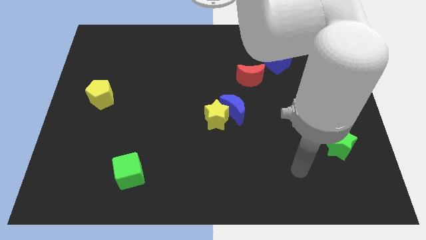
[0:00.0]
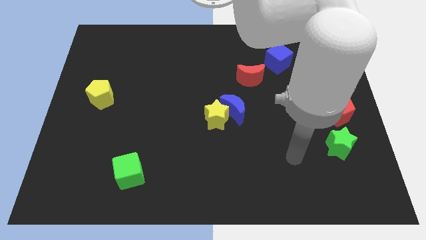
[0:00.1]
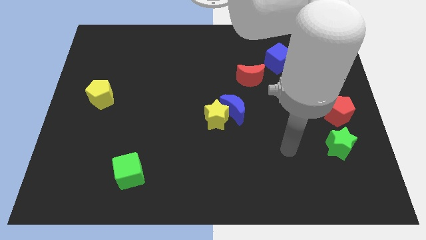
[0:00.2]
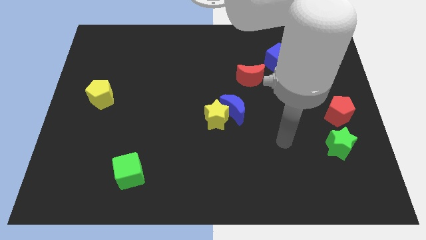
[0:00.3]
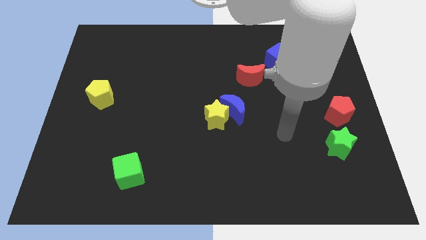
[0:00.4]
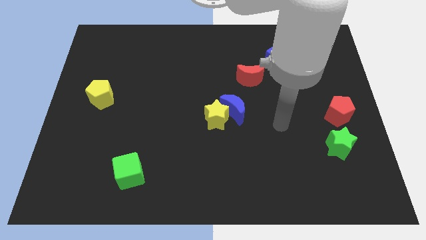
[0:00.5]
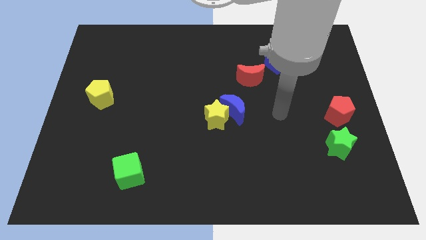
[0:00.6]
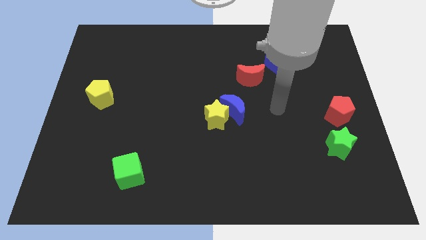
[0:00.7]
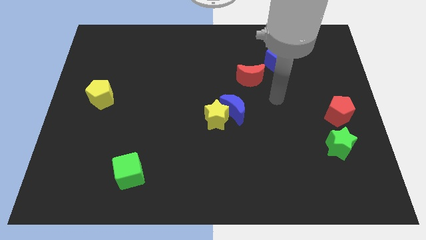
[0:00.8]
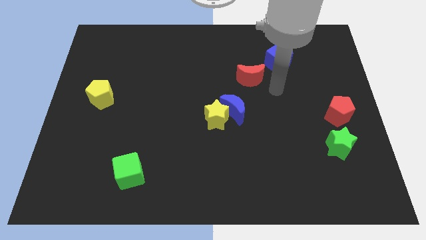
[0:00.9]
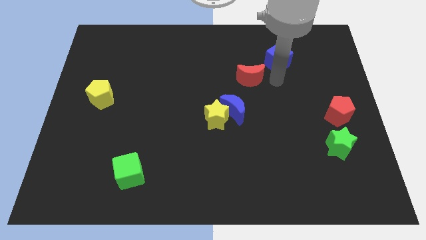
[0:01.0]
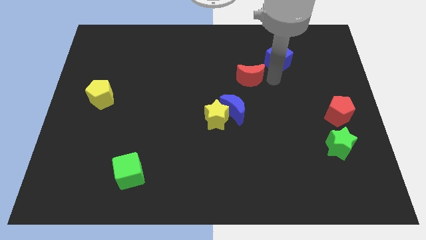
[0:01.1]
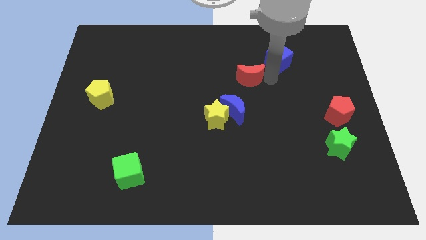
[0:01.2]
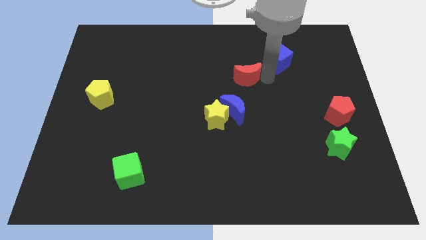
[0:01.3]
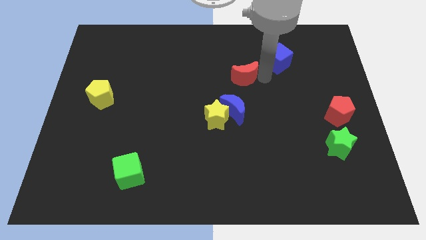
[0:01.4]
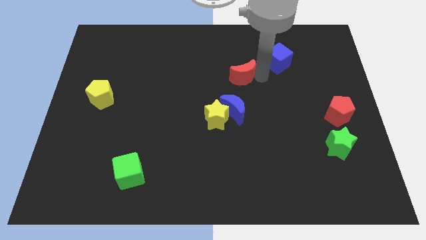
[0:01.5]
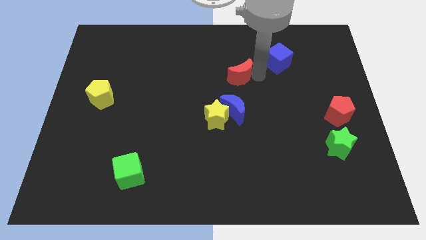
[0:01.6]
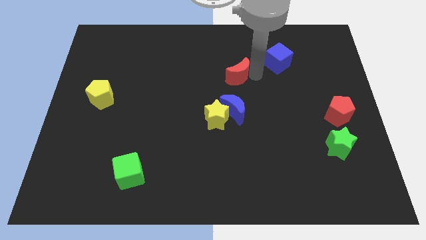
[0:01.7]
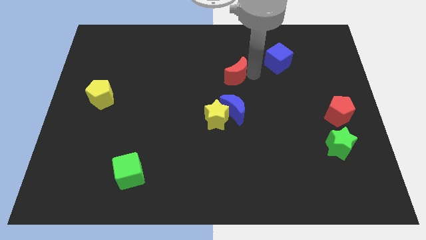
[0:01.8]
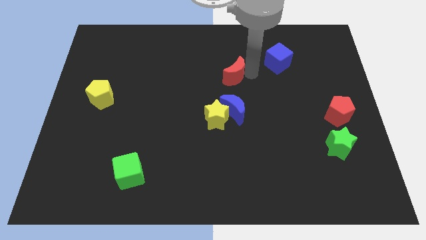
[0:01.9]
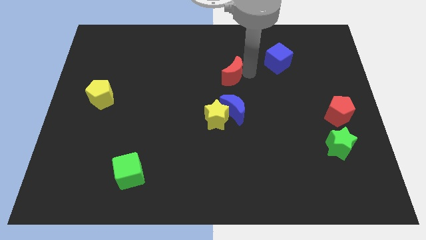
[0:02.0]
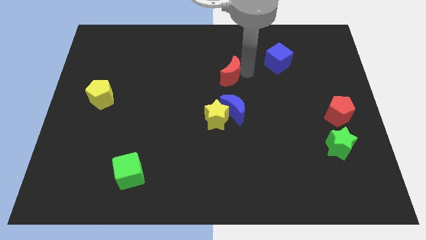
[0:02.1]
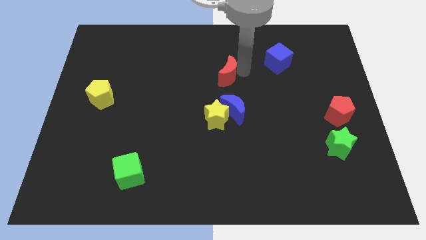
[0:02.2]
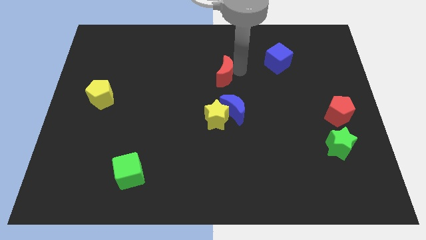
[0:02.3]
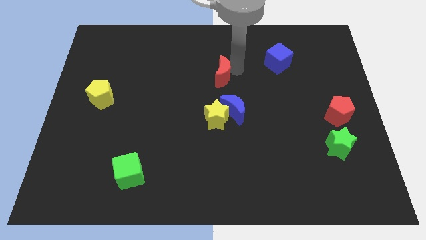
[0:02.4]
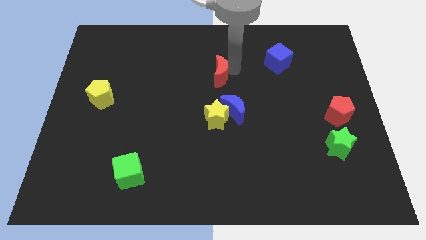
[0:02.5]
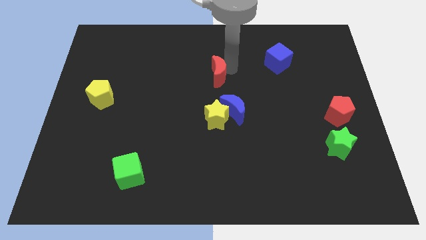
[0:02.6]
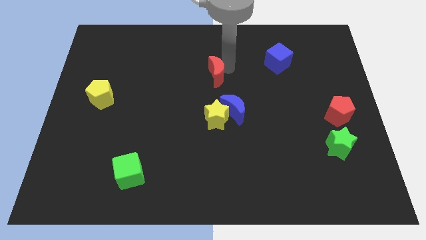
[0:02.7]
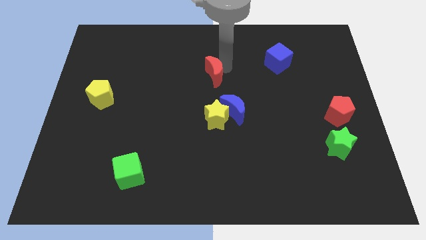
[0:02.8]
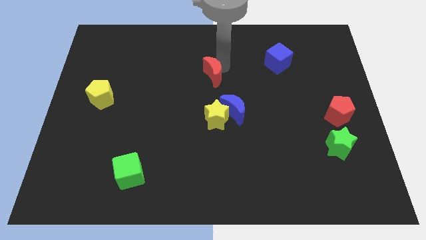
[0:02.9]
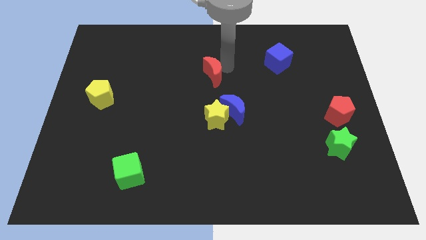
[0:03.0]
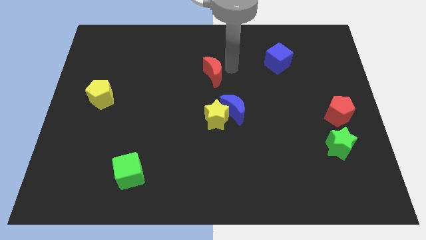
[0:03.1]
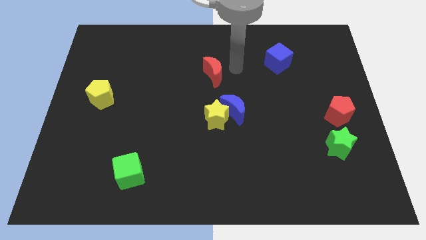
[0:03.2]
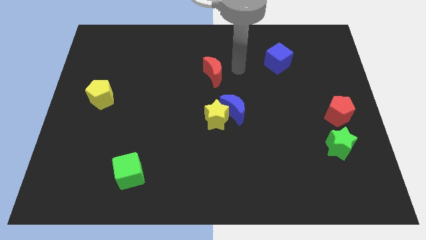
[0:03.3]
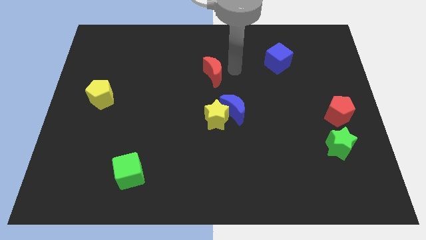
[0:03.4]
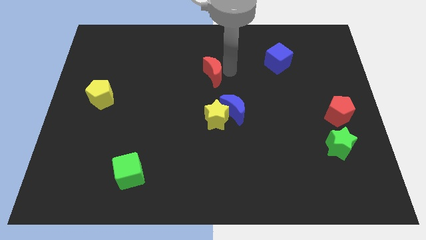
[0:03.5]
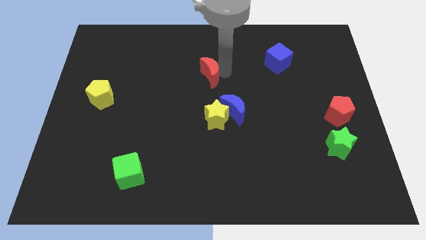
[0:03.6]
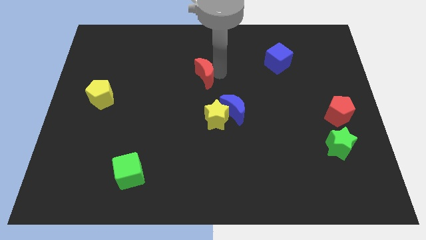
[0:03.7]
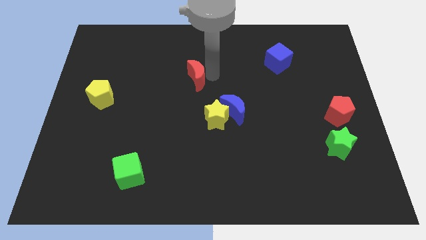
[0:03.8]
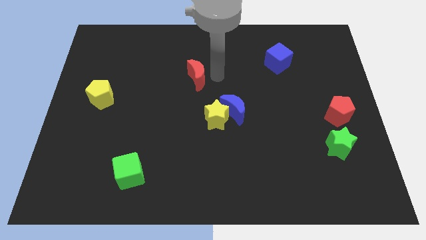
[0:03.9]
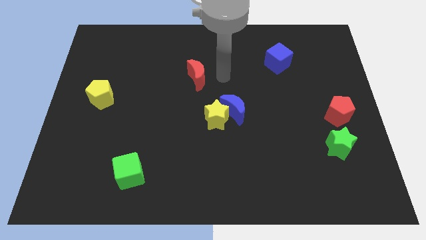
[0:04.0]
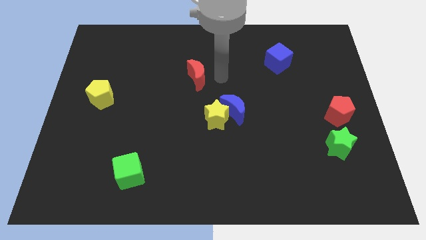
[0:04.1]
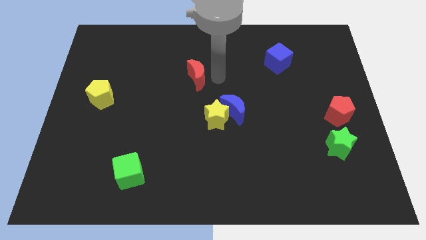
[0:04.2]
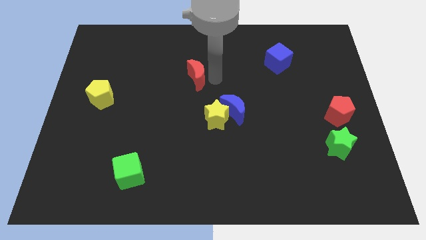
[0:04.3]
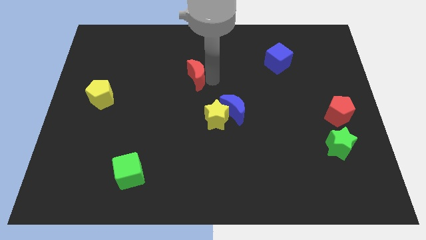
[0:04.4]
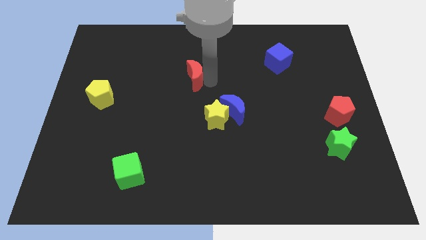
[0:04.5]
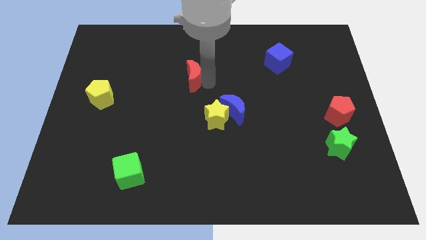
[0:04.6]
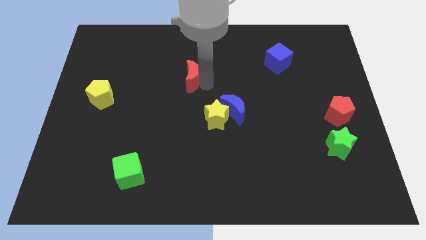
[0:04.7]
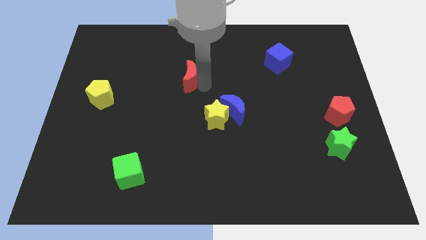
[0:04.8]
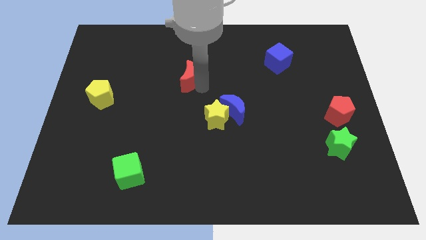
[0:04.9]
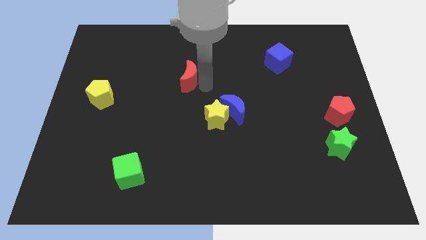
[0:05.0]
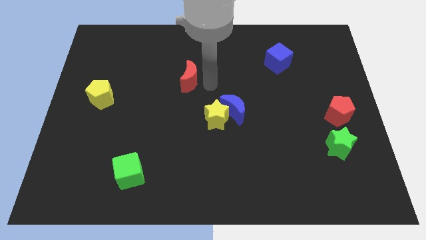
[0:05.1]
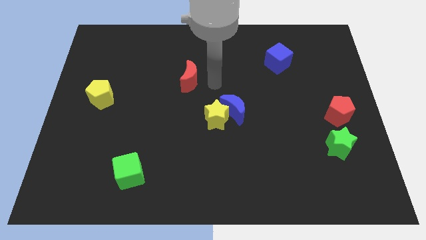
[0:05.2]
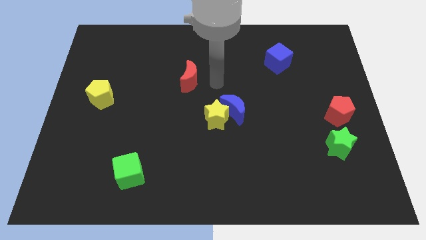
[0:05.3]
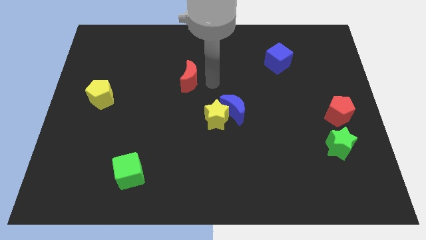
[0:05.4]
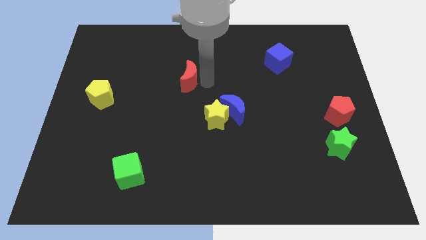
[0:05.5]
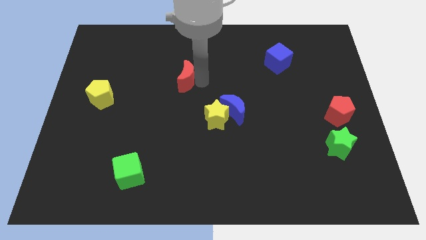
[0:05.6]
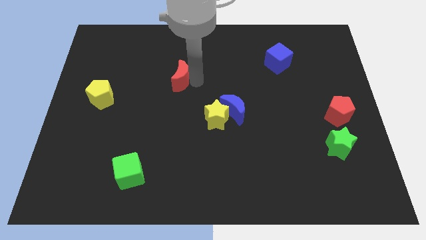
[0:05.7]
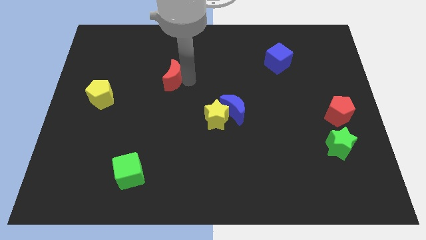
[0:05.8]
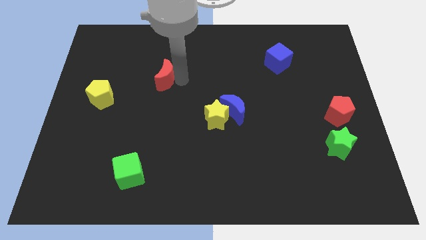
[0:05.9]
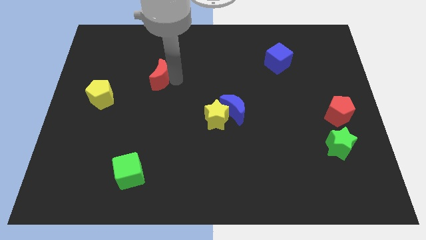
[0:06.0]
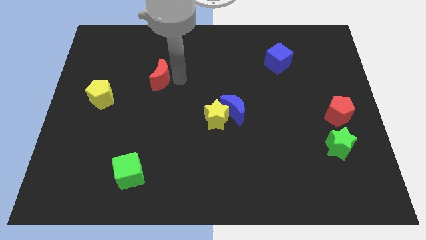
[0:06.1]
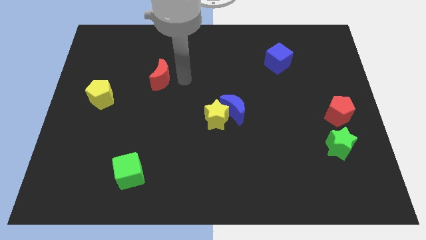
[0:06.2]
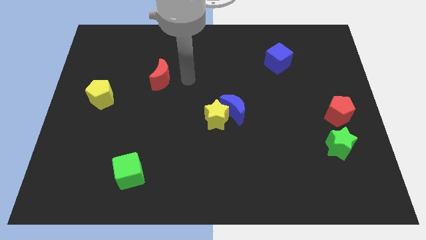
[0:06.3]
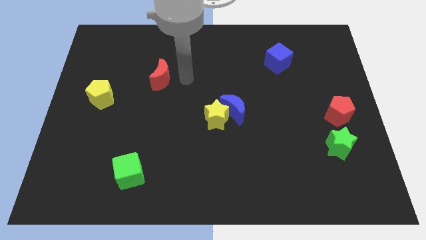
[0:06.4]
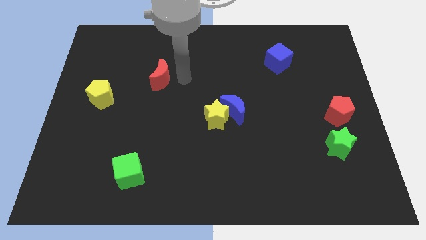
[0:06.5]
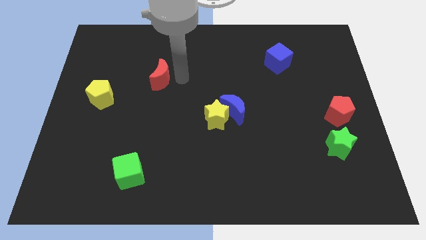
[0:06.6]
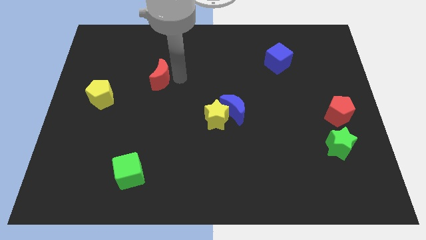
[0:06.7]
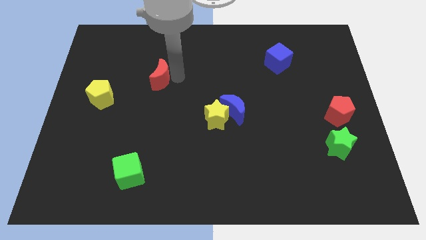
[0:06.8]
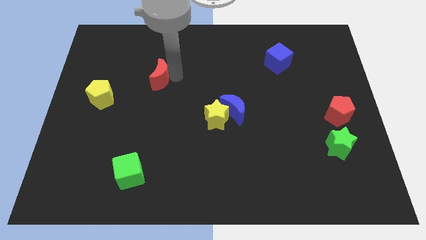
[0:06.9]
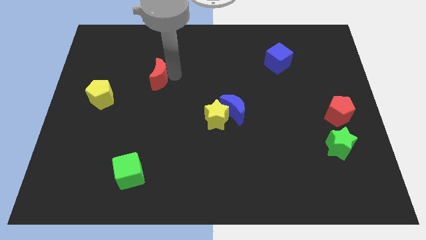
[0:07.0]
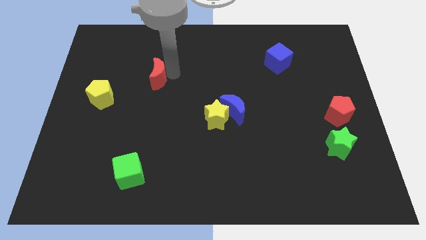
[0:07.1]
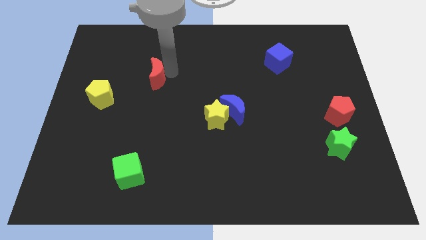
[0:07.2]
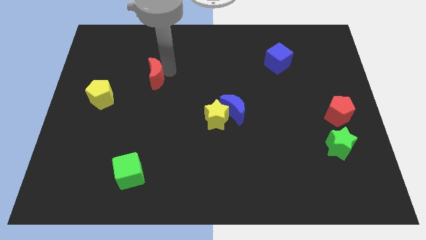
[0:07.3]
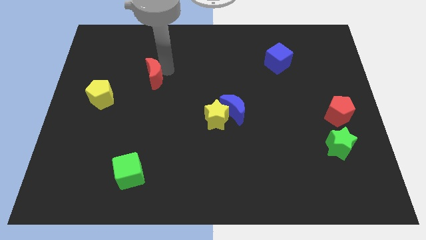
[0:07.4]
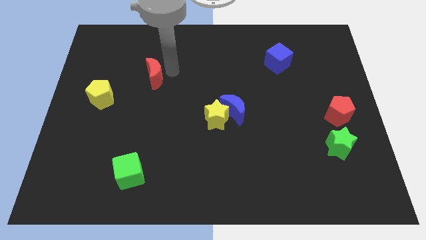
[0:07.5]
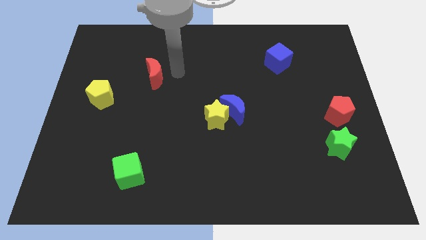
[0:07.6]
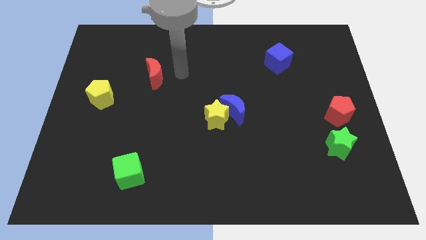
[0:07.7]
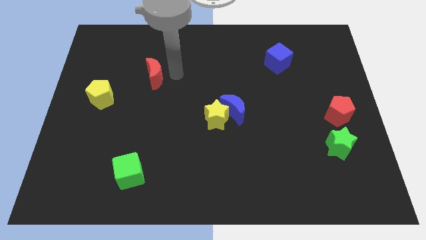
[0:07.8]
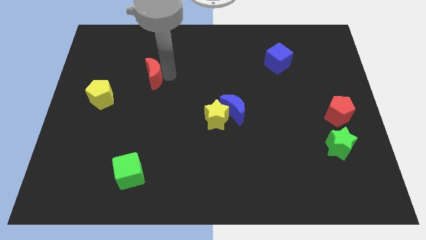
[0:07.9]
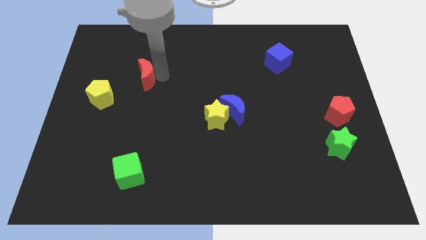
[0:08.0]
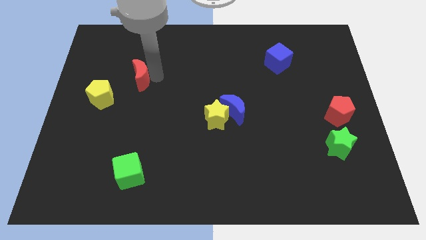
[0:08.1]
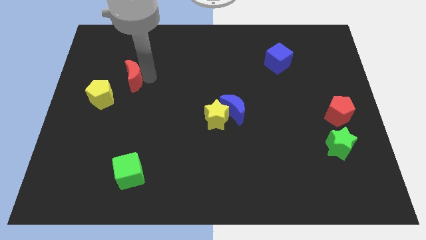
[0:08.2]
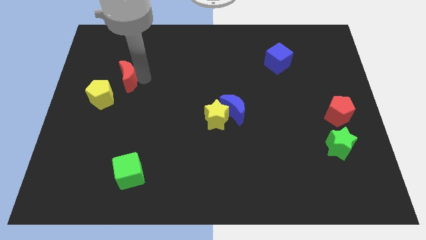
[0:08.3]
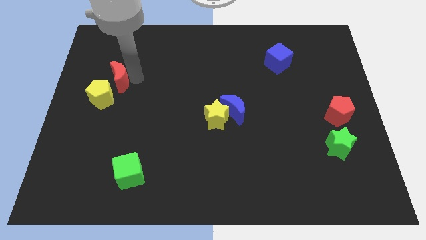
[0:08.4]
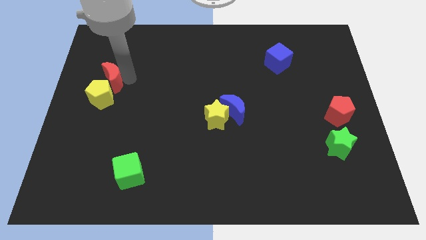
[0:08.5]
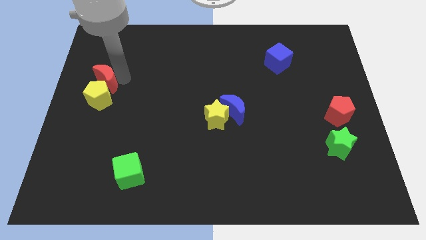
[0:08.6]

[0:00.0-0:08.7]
push the red moon to the left side
